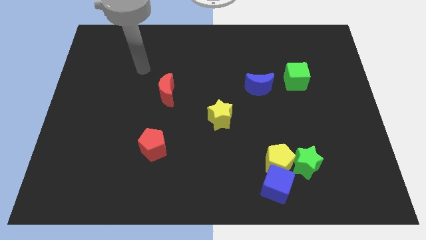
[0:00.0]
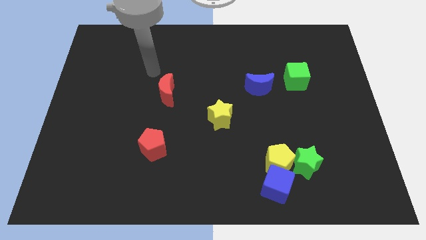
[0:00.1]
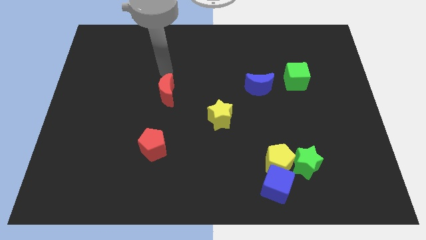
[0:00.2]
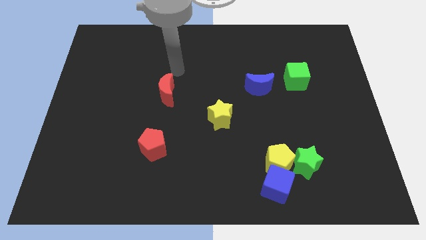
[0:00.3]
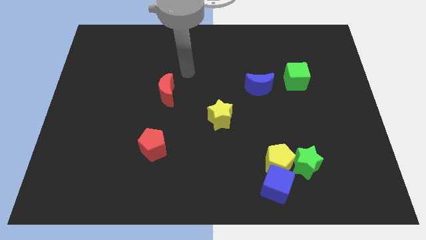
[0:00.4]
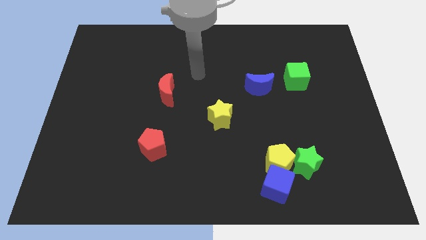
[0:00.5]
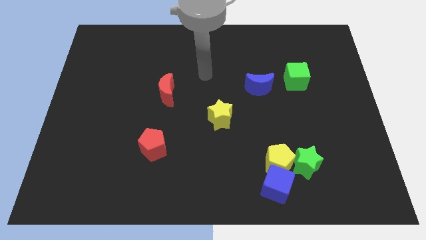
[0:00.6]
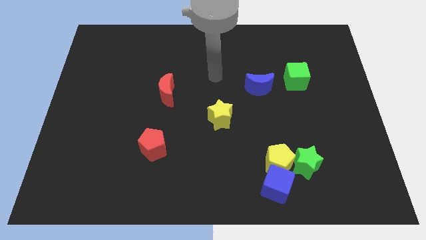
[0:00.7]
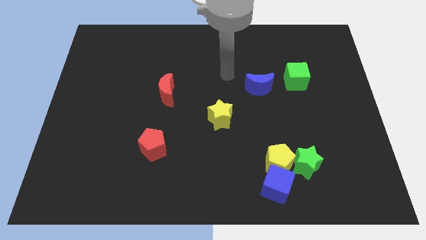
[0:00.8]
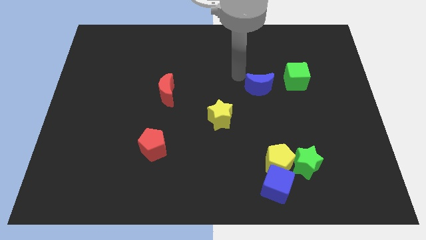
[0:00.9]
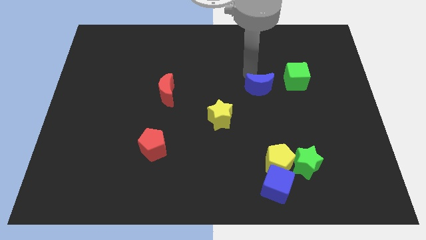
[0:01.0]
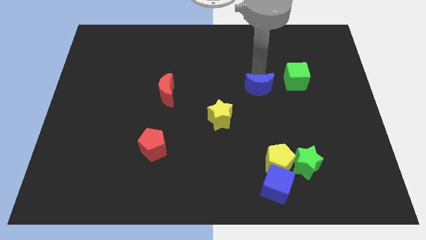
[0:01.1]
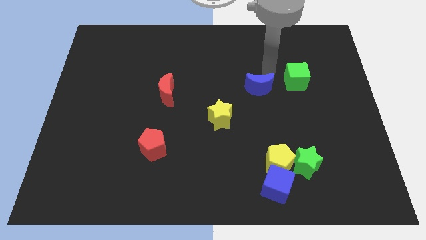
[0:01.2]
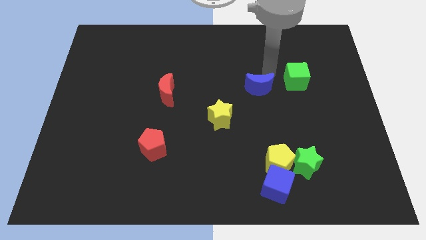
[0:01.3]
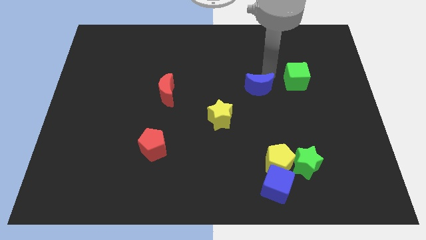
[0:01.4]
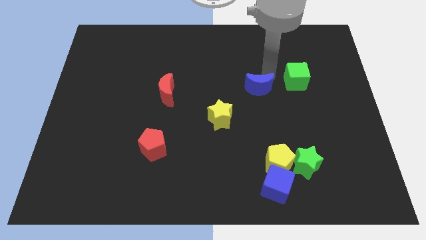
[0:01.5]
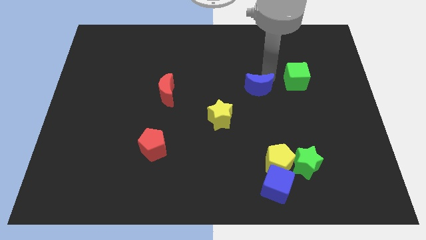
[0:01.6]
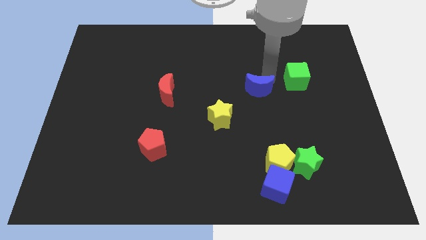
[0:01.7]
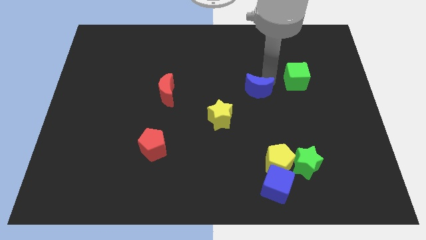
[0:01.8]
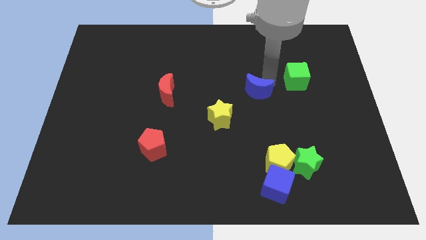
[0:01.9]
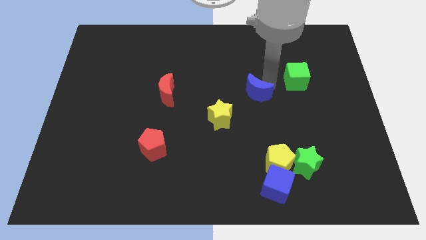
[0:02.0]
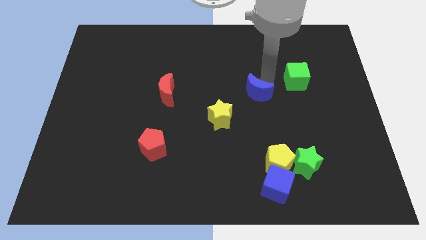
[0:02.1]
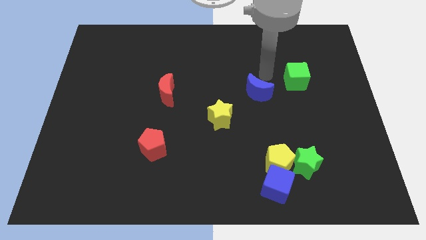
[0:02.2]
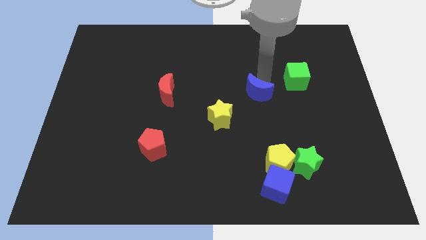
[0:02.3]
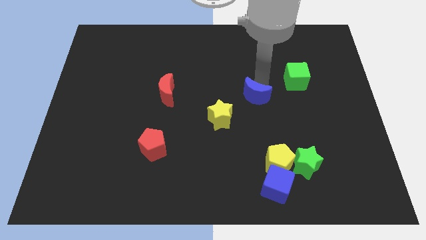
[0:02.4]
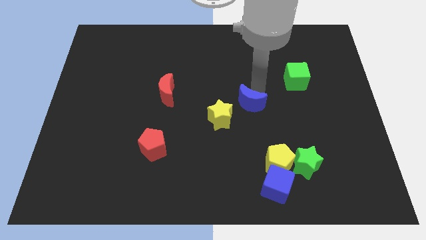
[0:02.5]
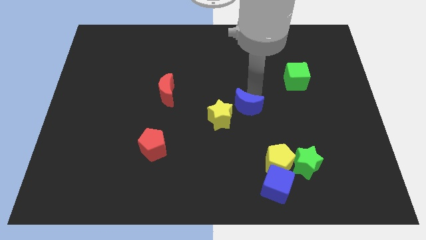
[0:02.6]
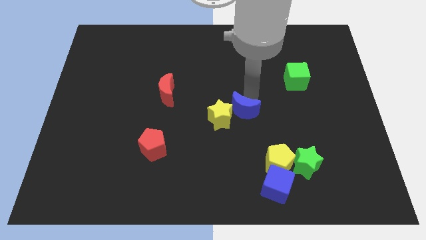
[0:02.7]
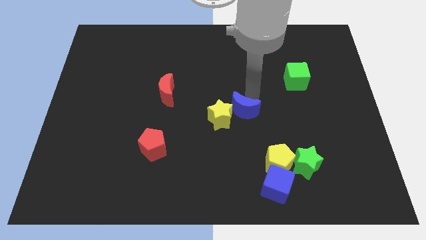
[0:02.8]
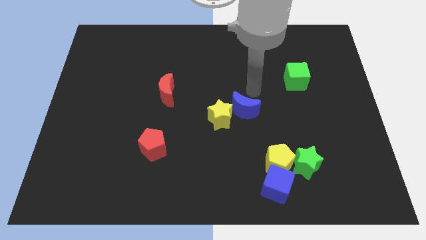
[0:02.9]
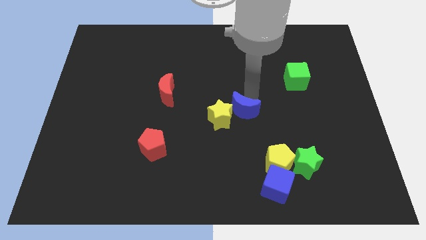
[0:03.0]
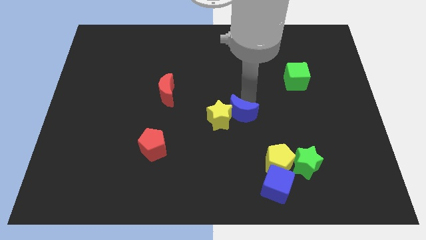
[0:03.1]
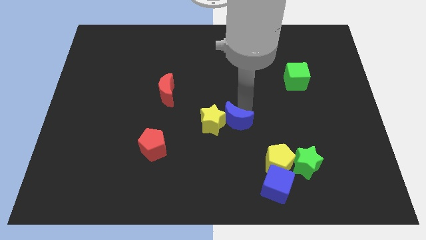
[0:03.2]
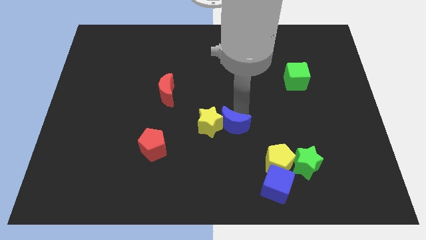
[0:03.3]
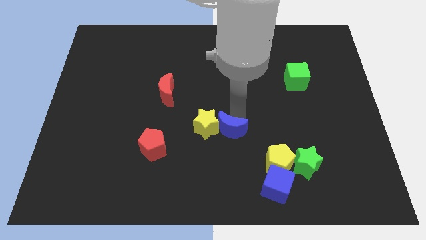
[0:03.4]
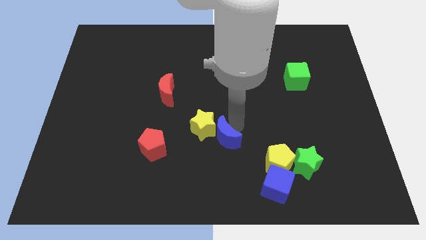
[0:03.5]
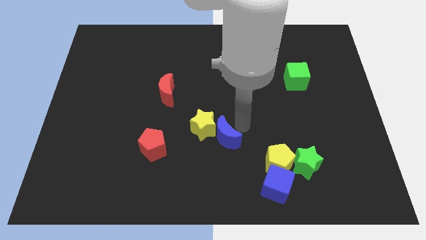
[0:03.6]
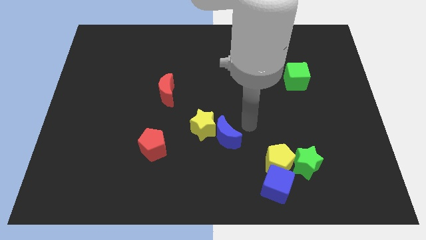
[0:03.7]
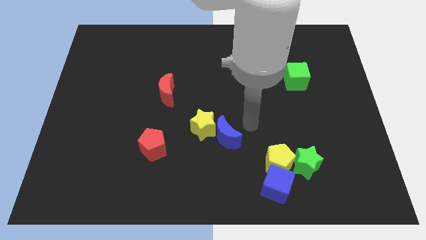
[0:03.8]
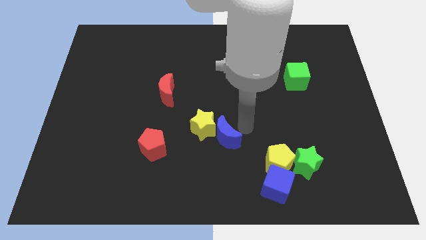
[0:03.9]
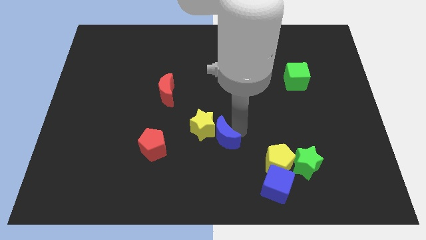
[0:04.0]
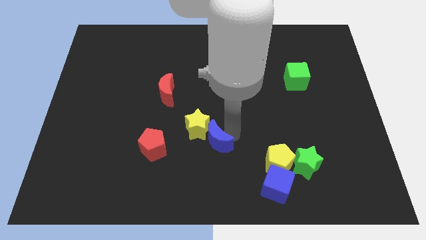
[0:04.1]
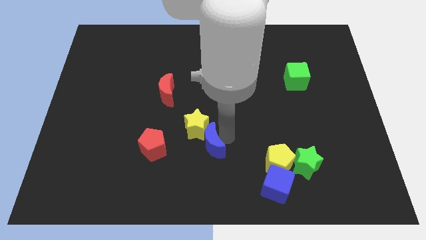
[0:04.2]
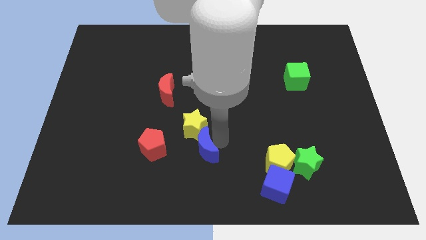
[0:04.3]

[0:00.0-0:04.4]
move the blue moon down and then to the left

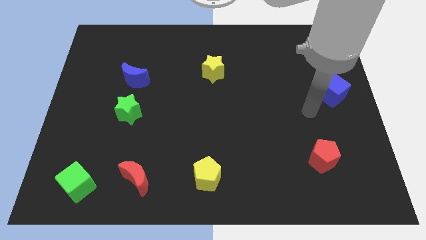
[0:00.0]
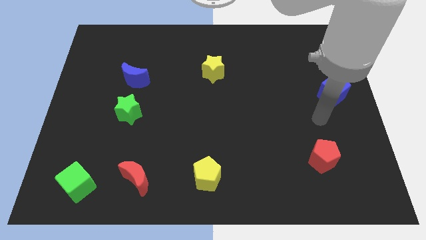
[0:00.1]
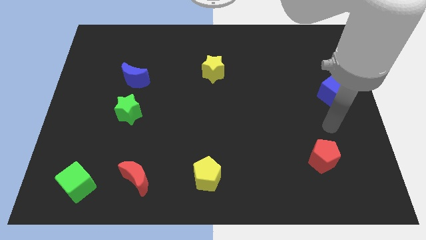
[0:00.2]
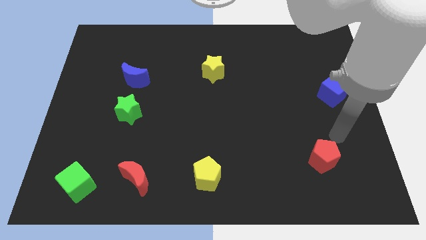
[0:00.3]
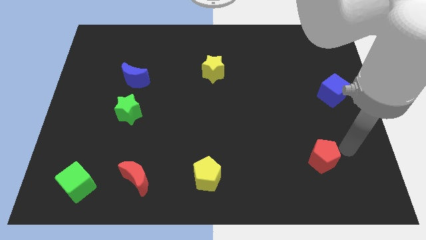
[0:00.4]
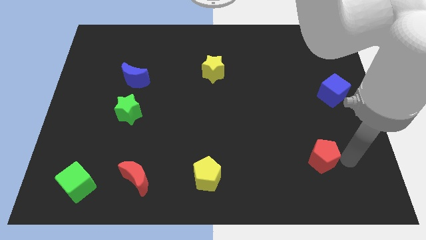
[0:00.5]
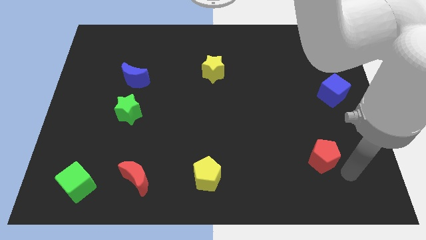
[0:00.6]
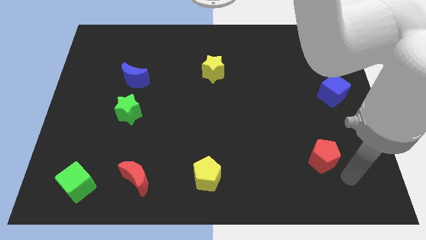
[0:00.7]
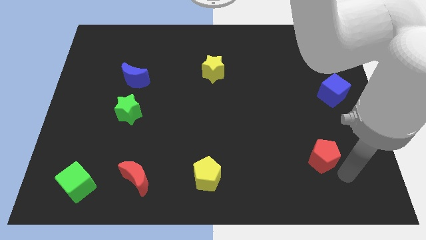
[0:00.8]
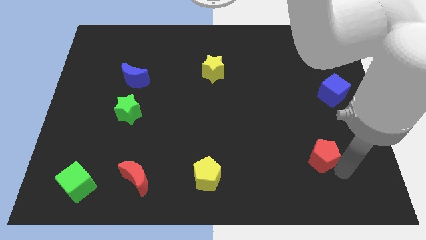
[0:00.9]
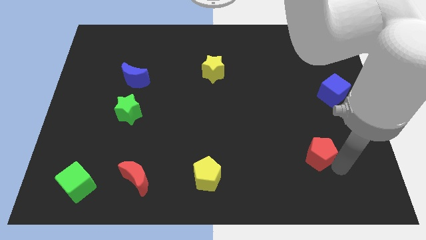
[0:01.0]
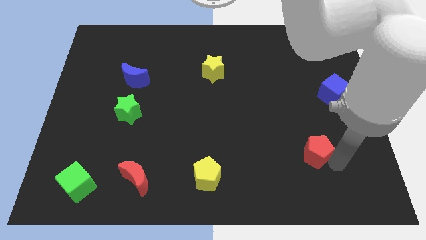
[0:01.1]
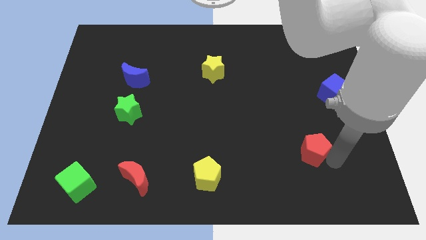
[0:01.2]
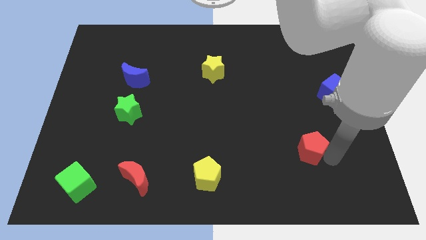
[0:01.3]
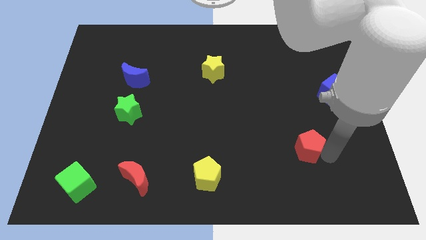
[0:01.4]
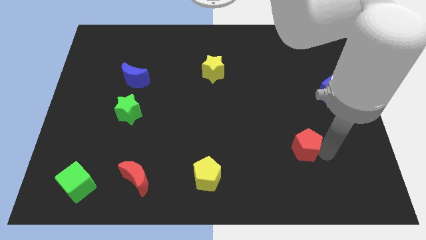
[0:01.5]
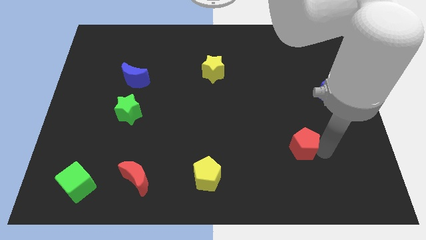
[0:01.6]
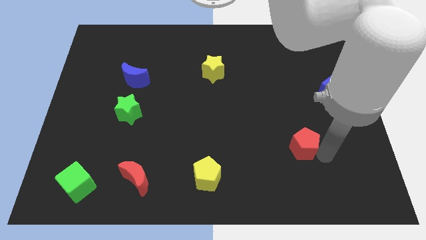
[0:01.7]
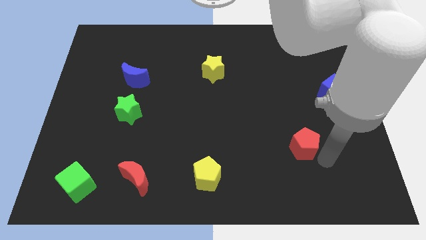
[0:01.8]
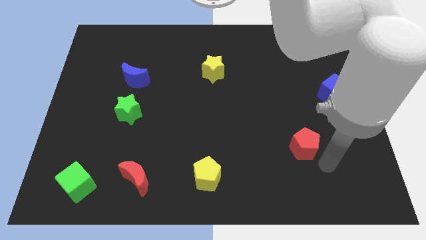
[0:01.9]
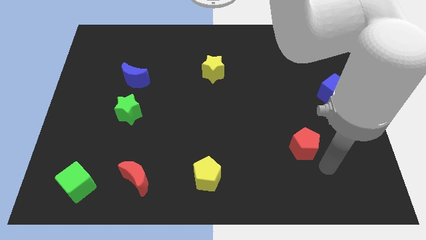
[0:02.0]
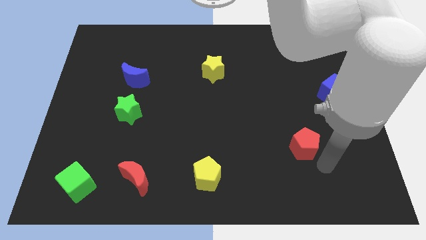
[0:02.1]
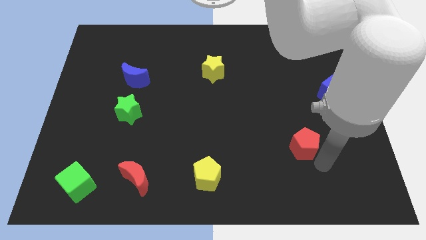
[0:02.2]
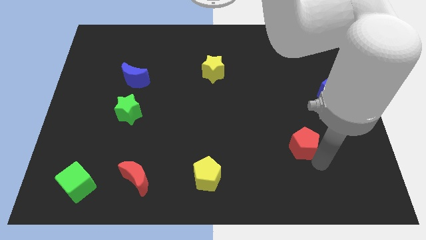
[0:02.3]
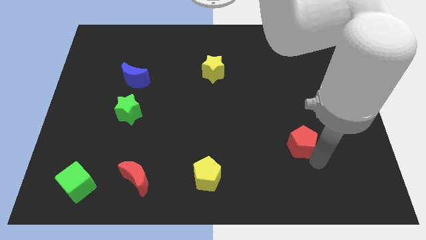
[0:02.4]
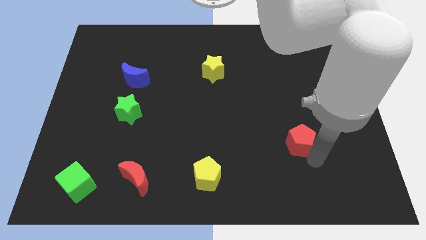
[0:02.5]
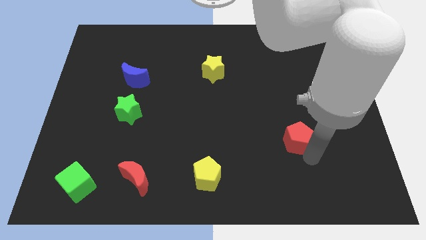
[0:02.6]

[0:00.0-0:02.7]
push the red pentagon upwards and then left a little bit

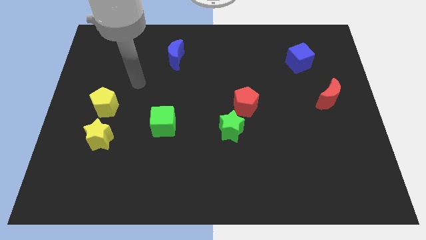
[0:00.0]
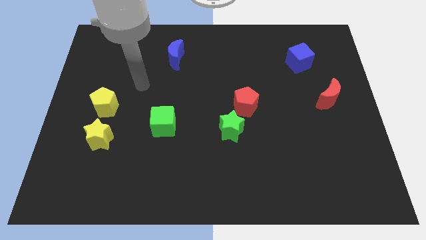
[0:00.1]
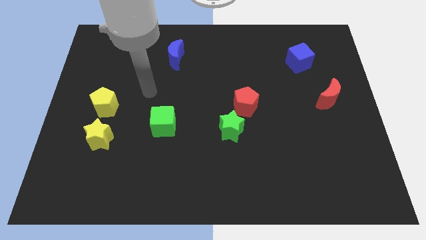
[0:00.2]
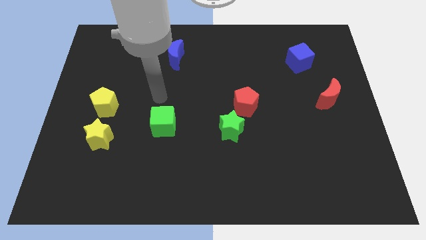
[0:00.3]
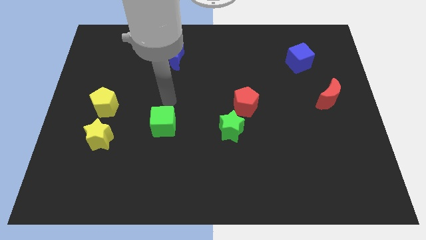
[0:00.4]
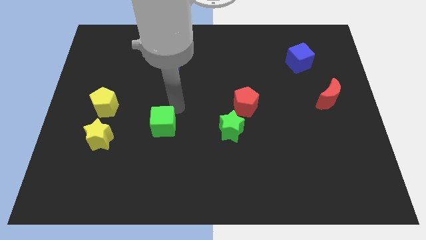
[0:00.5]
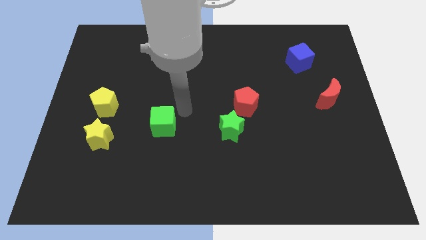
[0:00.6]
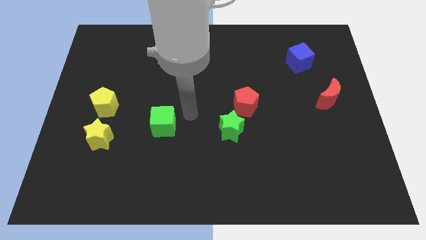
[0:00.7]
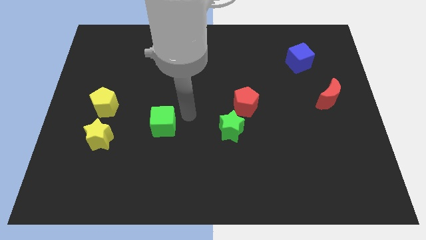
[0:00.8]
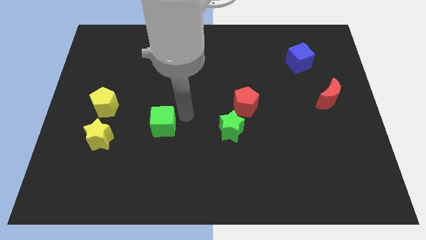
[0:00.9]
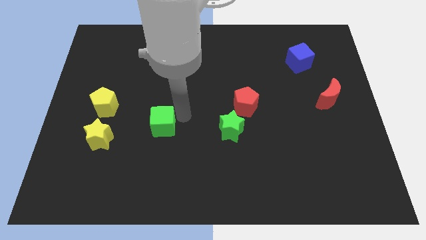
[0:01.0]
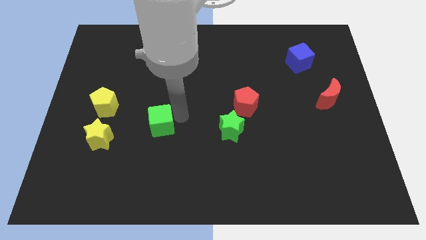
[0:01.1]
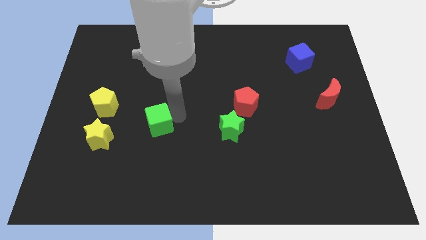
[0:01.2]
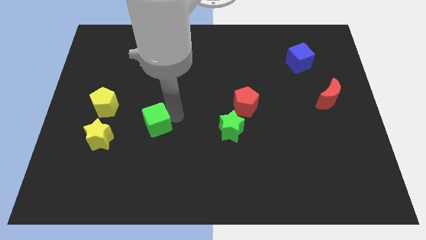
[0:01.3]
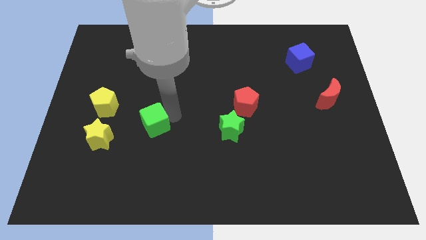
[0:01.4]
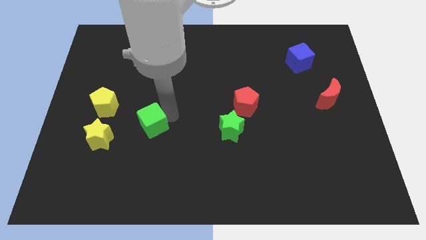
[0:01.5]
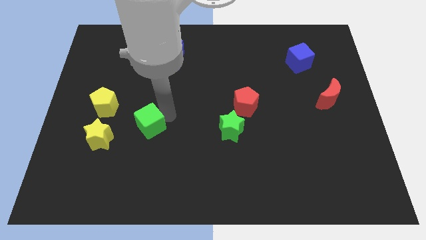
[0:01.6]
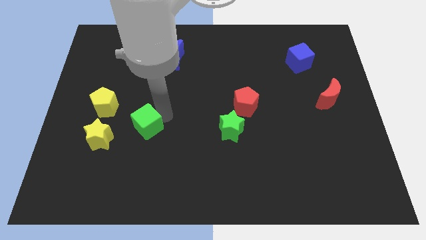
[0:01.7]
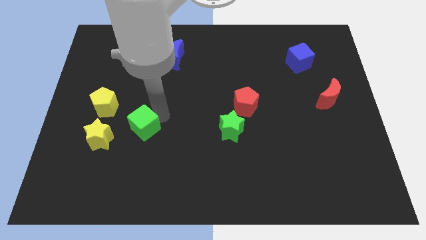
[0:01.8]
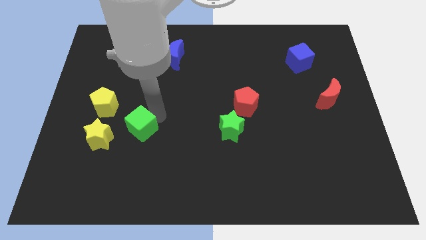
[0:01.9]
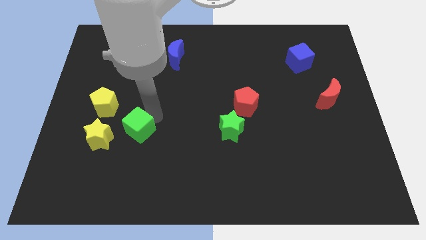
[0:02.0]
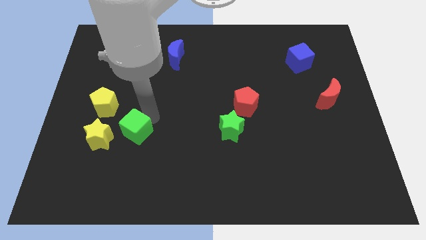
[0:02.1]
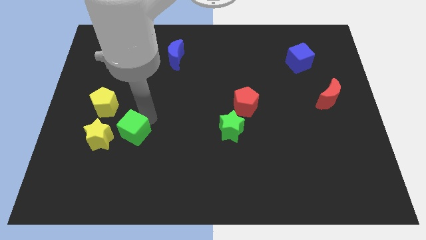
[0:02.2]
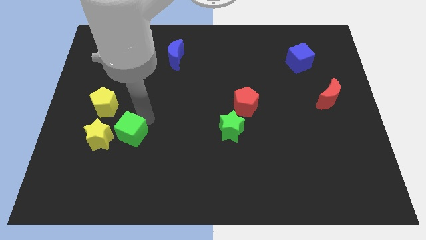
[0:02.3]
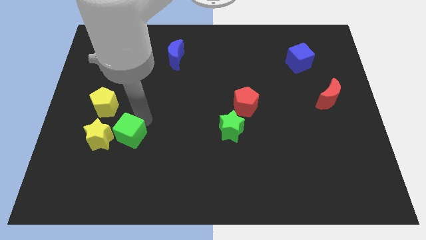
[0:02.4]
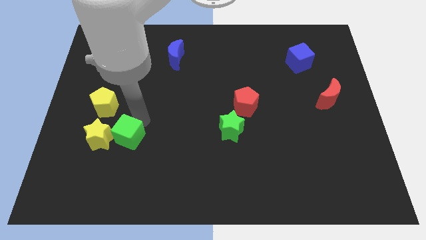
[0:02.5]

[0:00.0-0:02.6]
slightly push the green cube diagonally down and to the left
